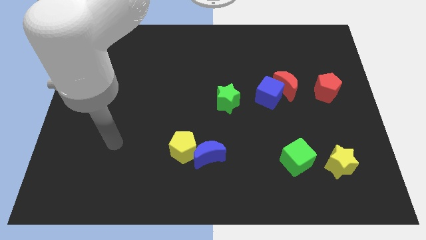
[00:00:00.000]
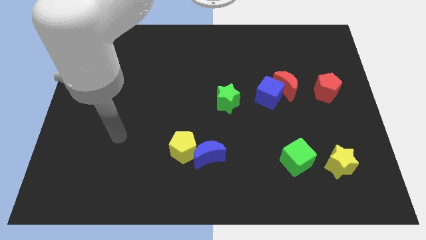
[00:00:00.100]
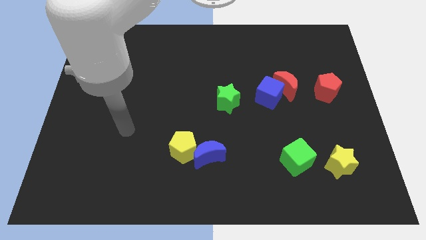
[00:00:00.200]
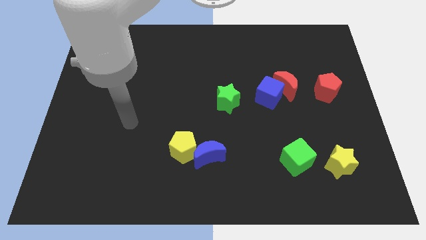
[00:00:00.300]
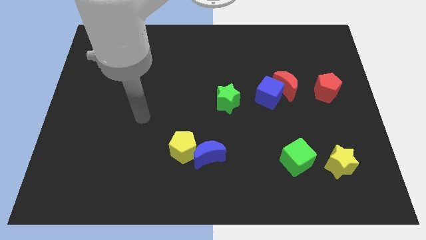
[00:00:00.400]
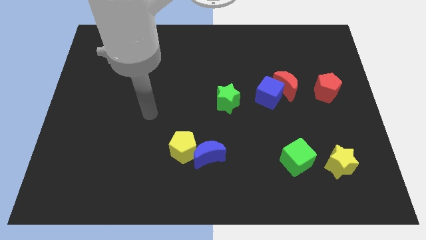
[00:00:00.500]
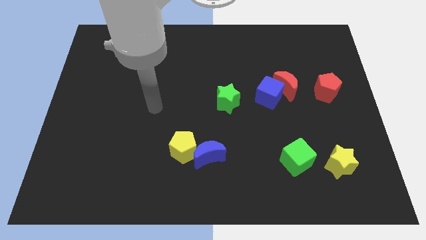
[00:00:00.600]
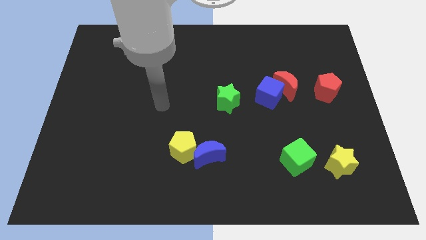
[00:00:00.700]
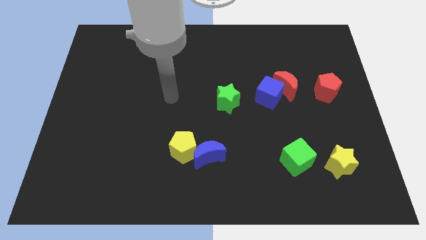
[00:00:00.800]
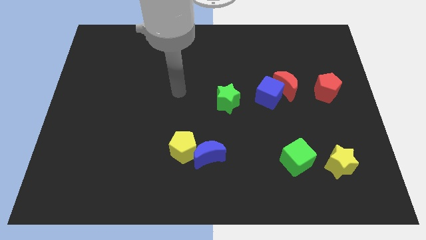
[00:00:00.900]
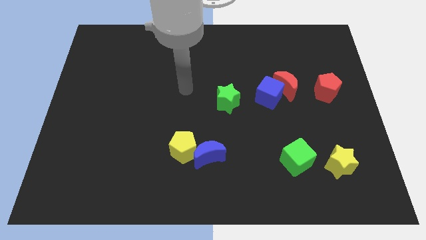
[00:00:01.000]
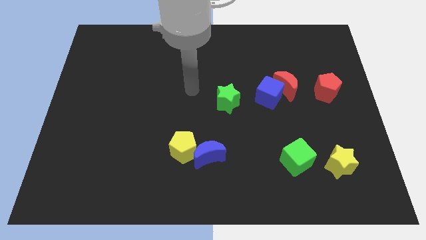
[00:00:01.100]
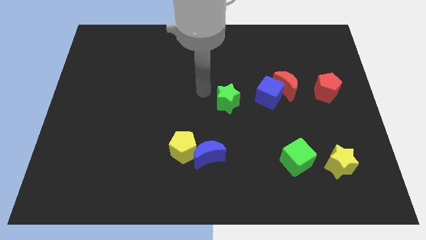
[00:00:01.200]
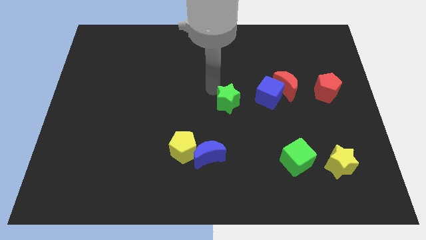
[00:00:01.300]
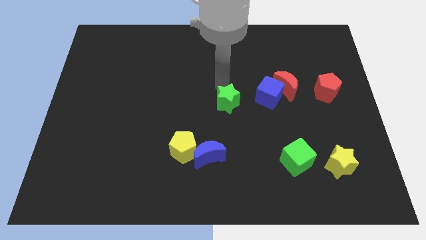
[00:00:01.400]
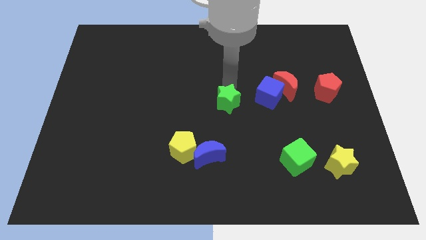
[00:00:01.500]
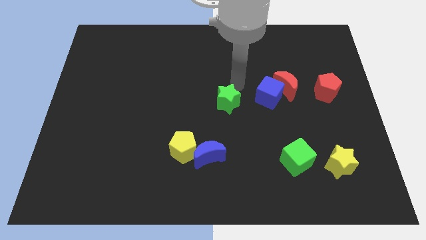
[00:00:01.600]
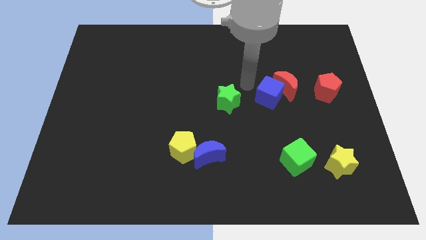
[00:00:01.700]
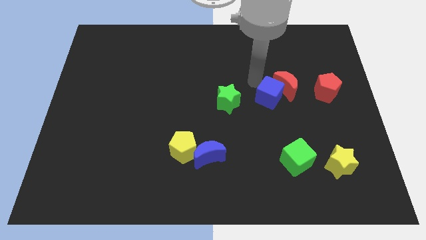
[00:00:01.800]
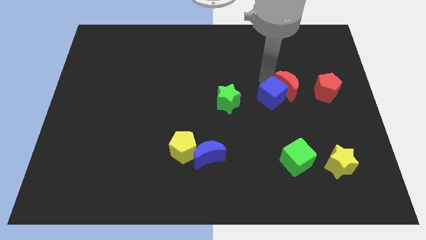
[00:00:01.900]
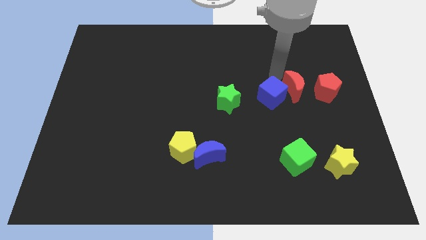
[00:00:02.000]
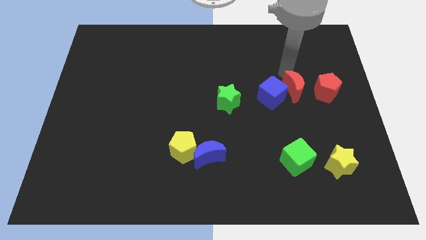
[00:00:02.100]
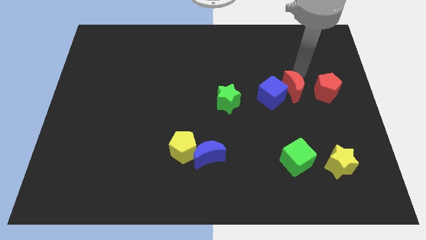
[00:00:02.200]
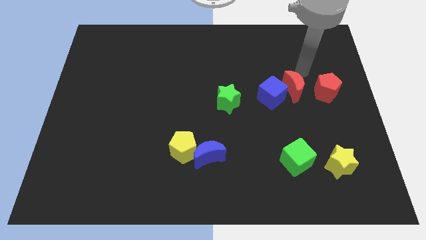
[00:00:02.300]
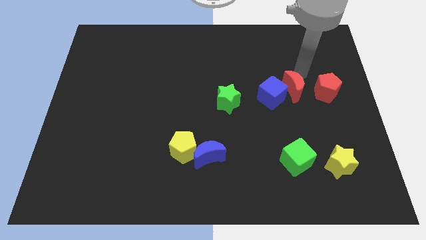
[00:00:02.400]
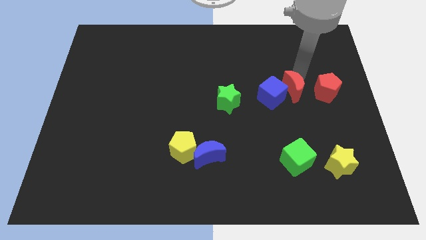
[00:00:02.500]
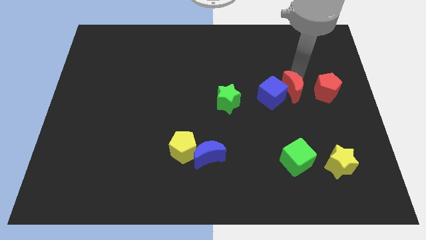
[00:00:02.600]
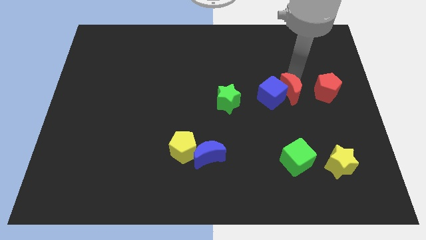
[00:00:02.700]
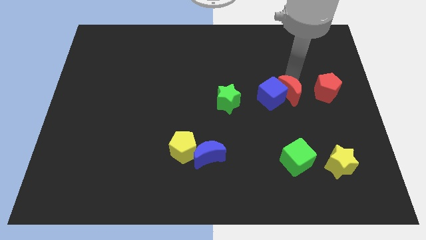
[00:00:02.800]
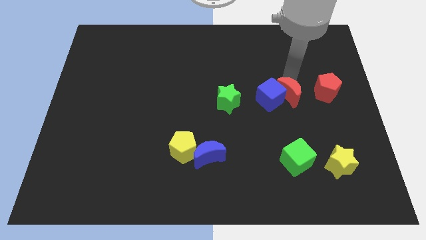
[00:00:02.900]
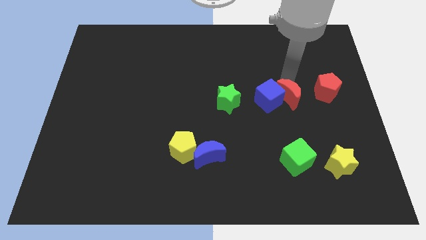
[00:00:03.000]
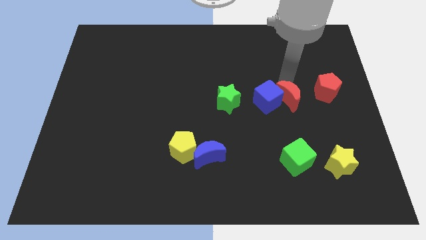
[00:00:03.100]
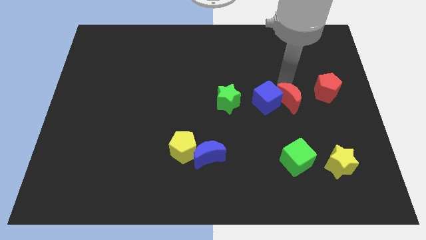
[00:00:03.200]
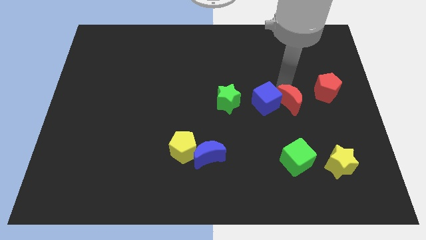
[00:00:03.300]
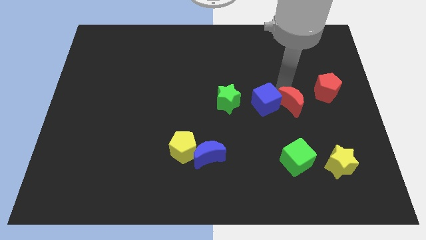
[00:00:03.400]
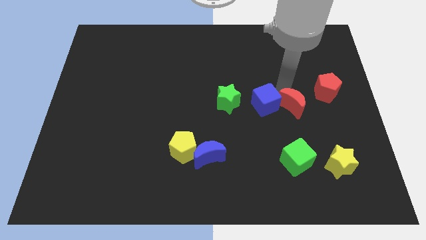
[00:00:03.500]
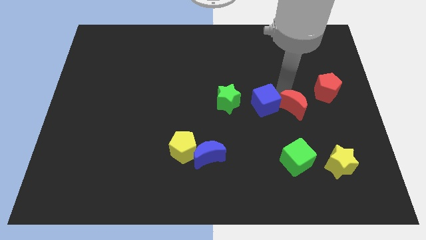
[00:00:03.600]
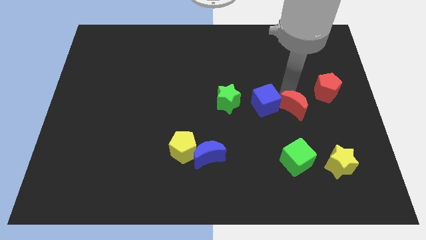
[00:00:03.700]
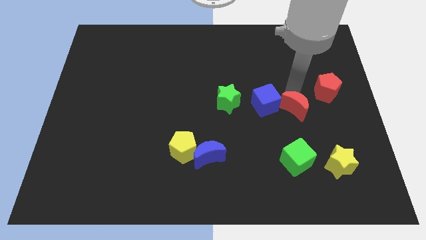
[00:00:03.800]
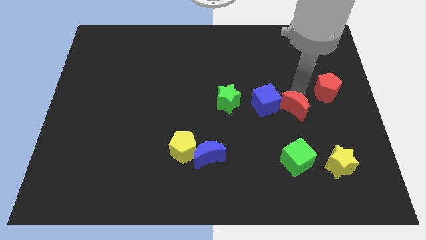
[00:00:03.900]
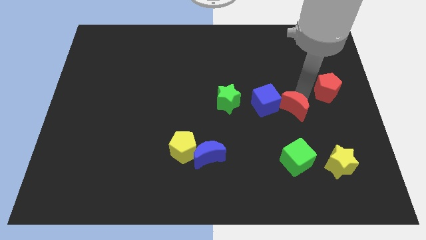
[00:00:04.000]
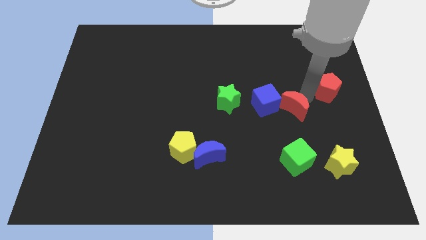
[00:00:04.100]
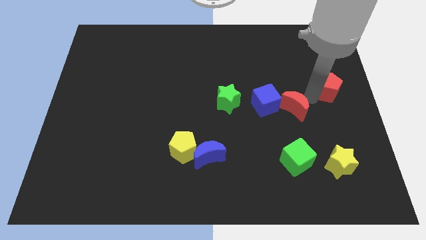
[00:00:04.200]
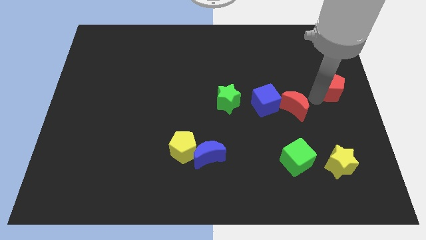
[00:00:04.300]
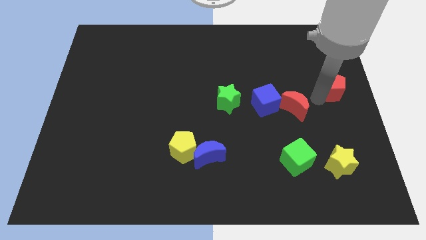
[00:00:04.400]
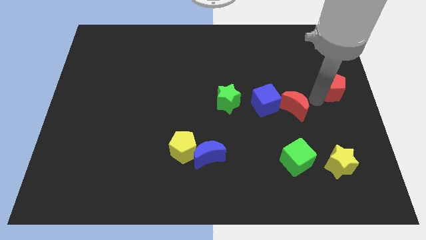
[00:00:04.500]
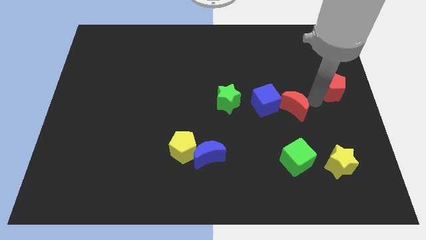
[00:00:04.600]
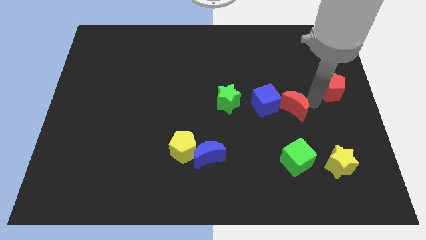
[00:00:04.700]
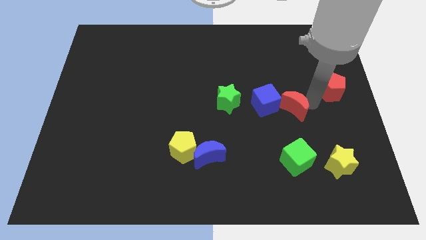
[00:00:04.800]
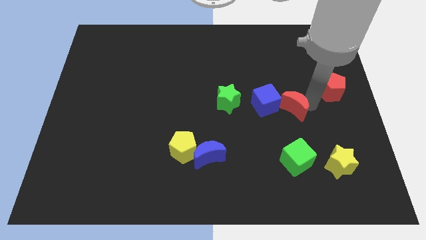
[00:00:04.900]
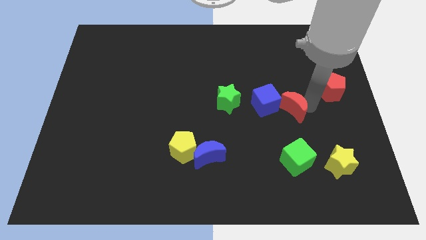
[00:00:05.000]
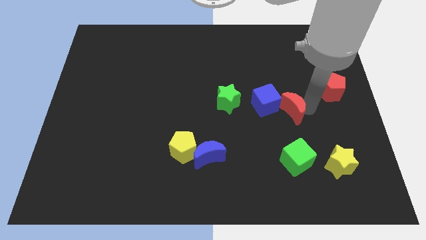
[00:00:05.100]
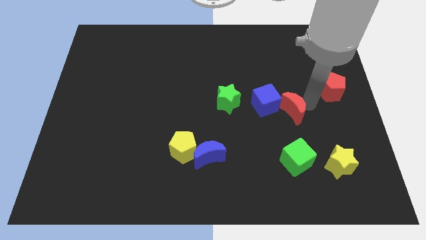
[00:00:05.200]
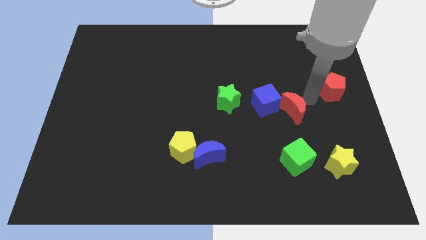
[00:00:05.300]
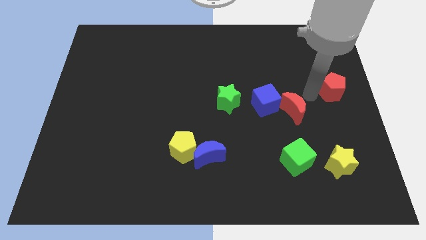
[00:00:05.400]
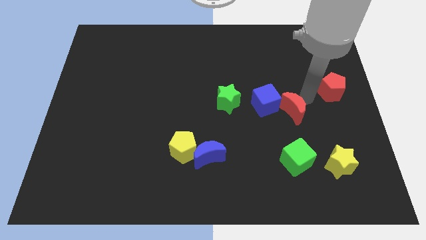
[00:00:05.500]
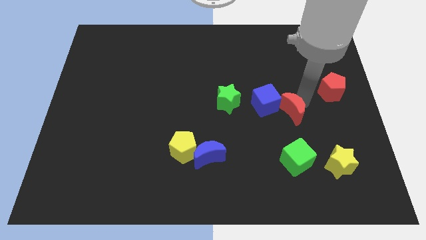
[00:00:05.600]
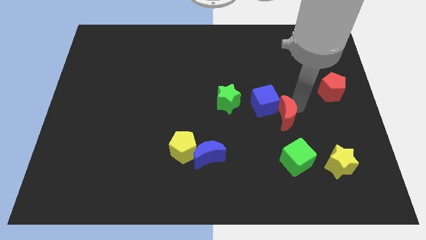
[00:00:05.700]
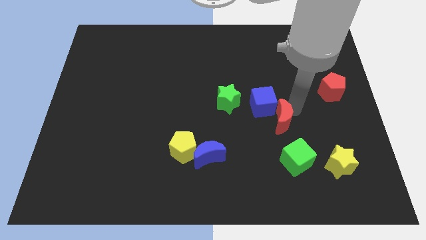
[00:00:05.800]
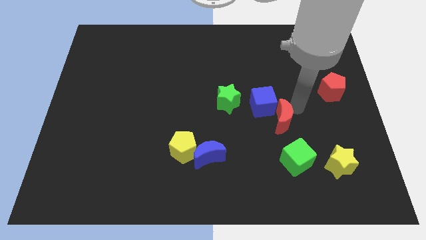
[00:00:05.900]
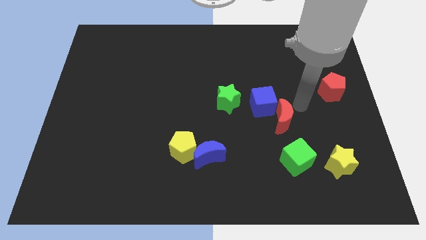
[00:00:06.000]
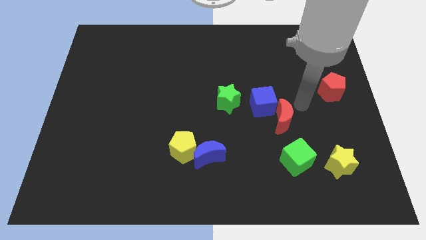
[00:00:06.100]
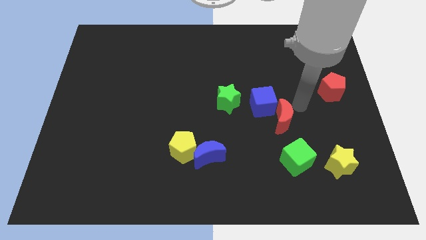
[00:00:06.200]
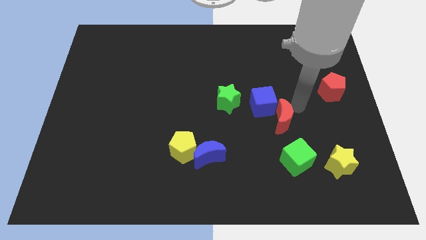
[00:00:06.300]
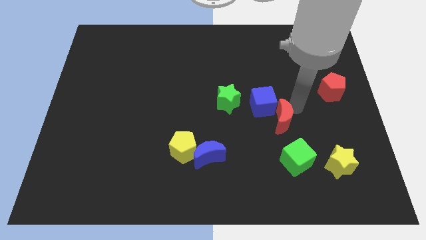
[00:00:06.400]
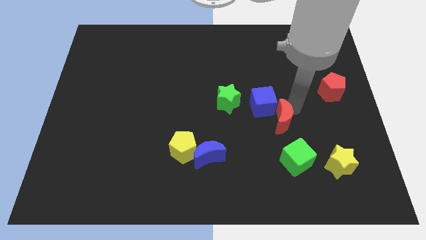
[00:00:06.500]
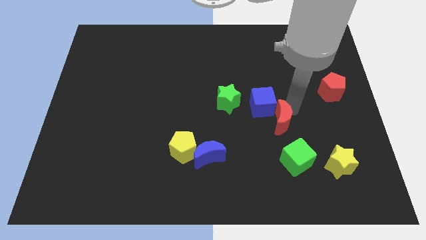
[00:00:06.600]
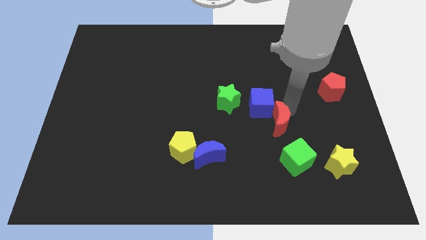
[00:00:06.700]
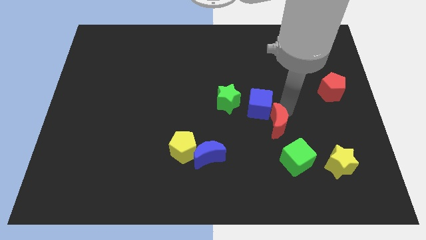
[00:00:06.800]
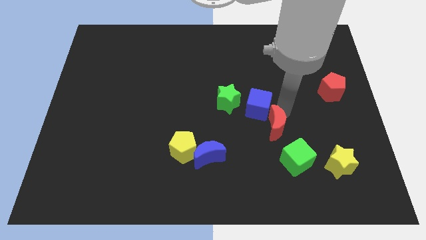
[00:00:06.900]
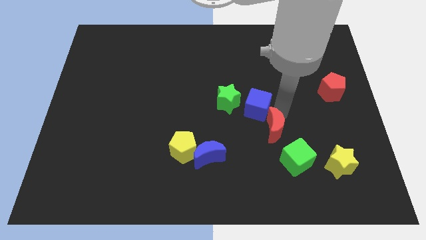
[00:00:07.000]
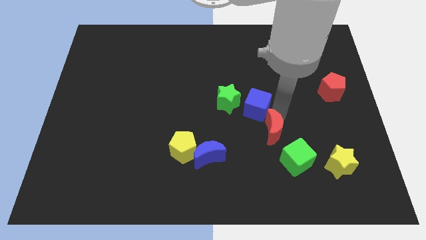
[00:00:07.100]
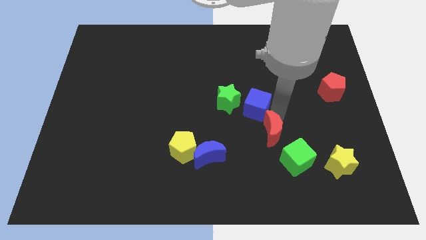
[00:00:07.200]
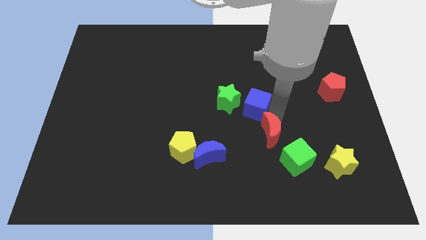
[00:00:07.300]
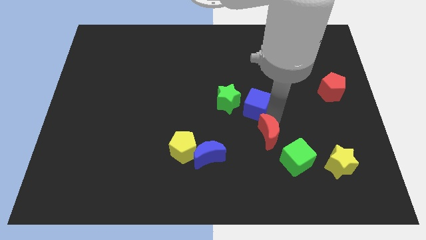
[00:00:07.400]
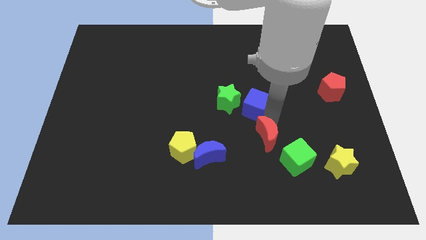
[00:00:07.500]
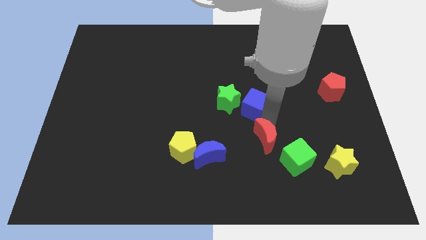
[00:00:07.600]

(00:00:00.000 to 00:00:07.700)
move the red moon to the right side of the blue moon
